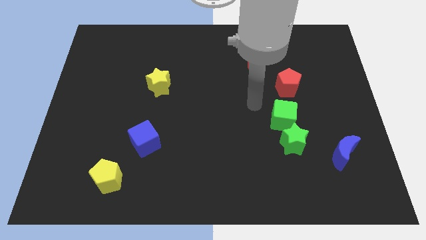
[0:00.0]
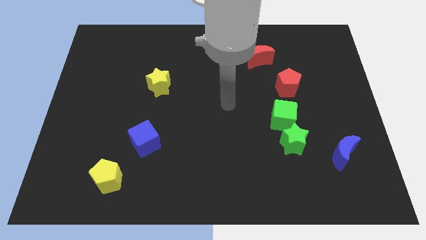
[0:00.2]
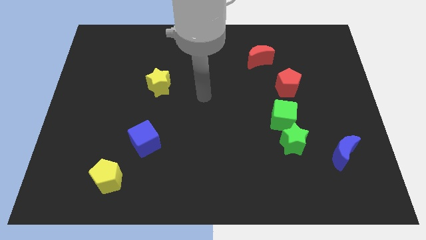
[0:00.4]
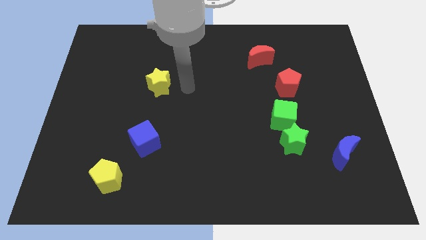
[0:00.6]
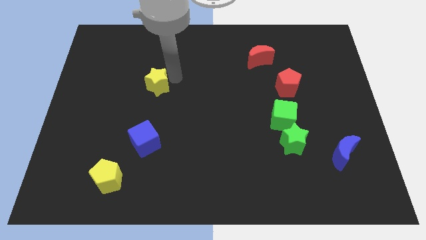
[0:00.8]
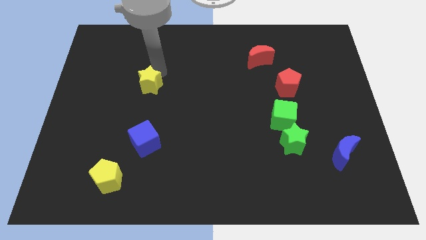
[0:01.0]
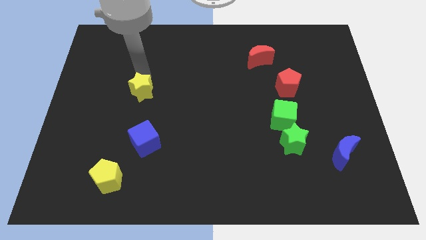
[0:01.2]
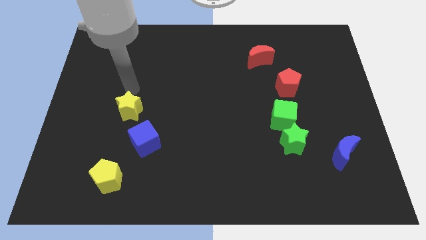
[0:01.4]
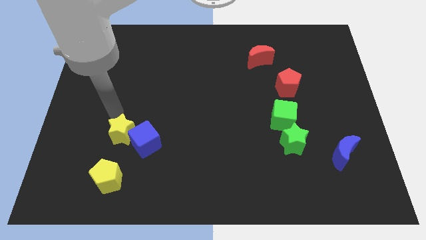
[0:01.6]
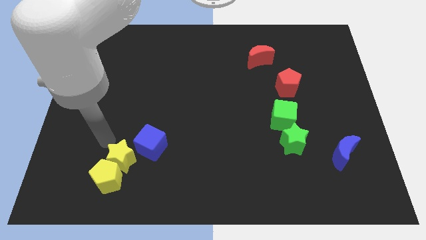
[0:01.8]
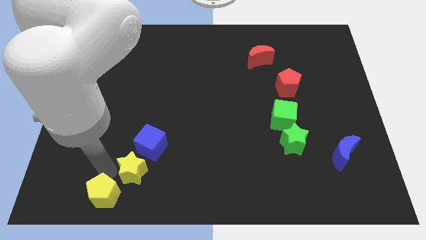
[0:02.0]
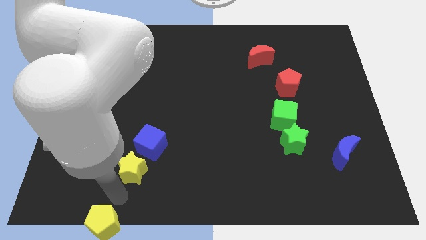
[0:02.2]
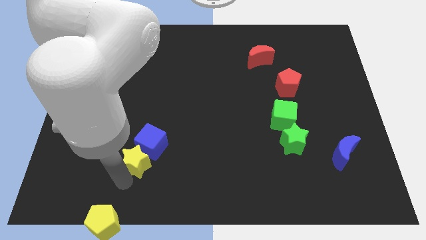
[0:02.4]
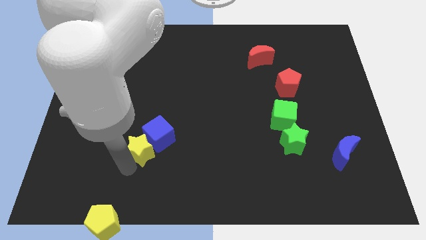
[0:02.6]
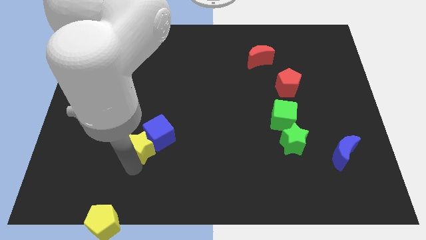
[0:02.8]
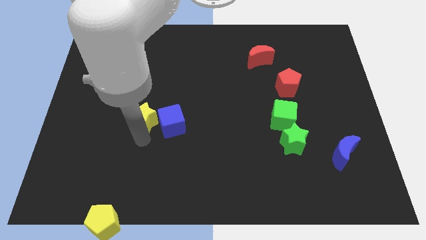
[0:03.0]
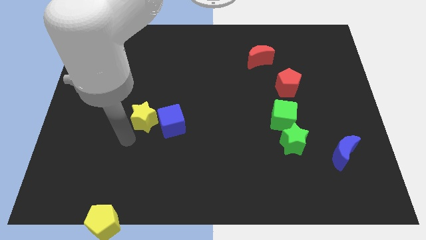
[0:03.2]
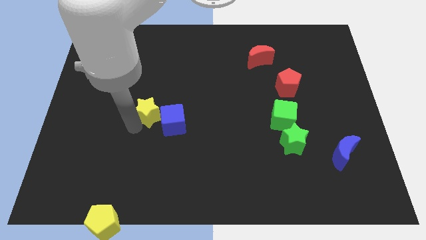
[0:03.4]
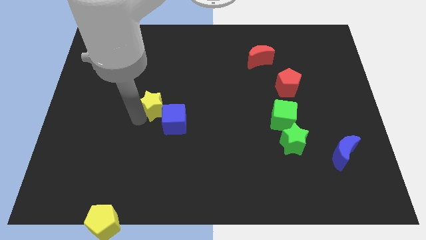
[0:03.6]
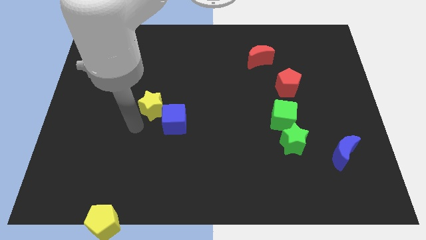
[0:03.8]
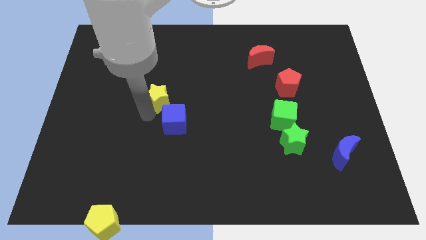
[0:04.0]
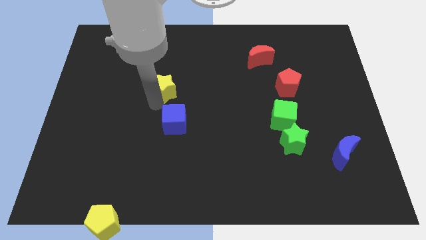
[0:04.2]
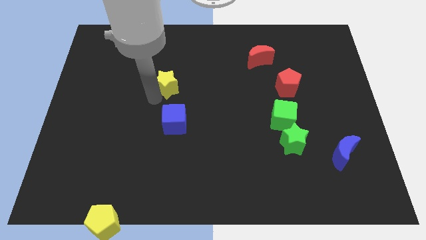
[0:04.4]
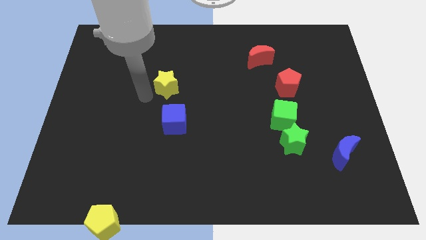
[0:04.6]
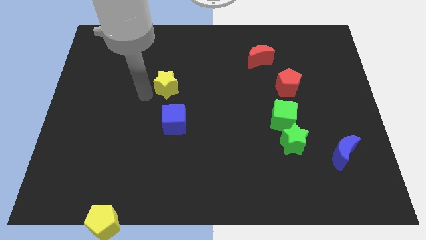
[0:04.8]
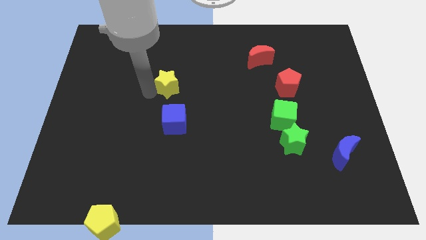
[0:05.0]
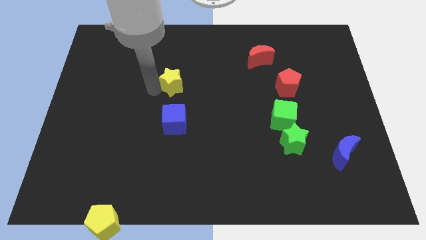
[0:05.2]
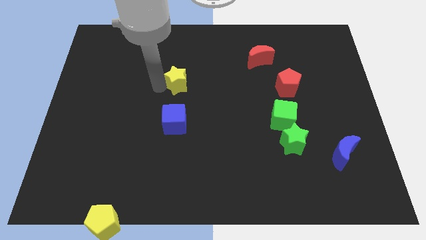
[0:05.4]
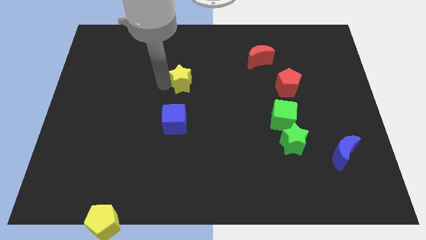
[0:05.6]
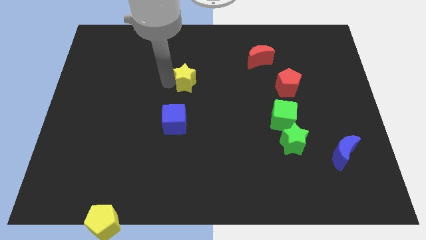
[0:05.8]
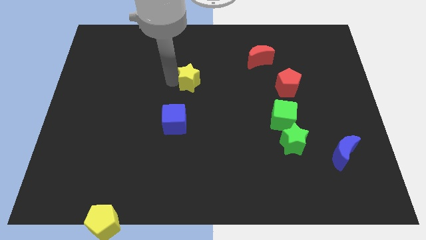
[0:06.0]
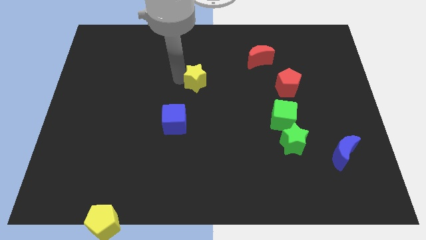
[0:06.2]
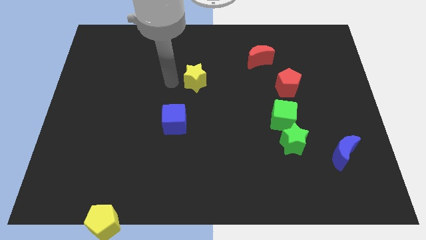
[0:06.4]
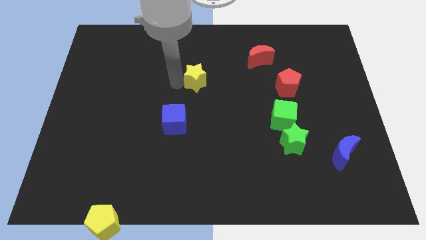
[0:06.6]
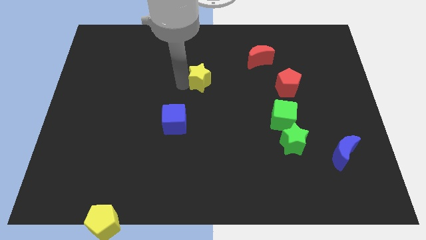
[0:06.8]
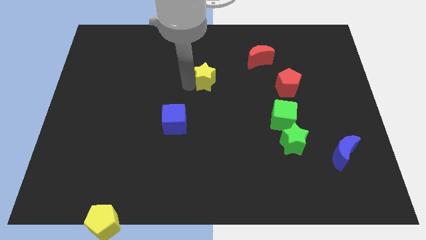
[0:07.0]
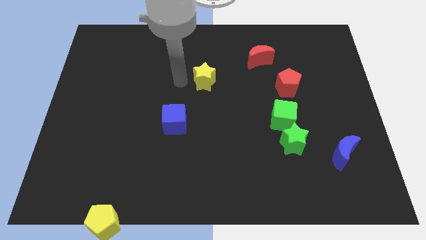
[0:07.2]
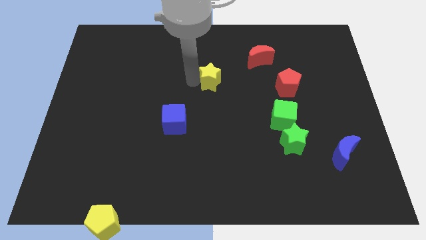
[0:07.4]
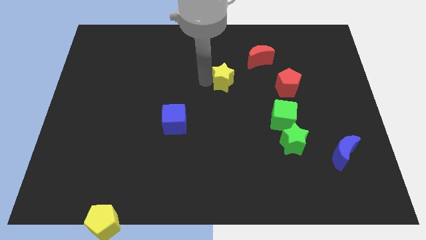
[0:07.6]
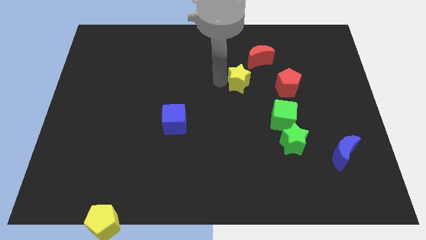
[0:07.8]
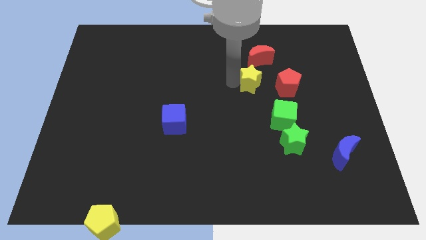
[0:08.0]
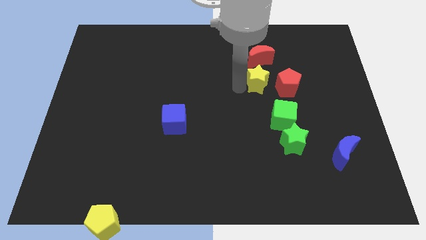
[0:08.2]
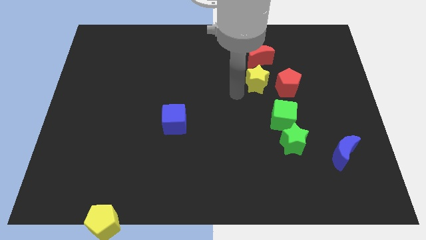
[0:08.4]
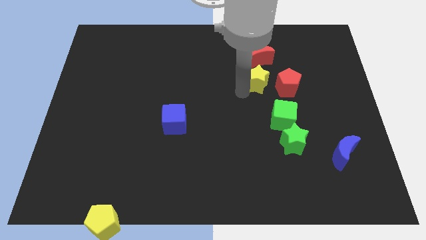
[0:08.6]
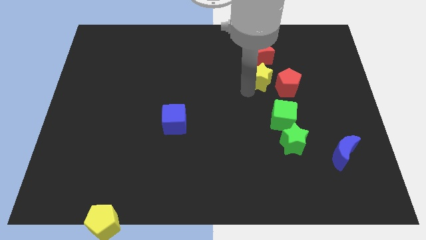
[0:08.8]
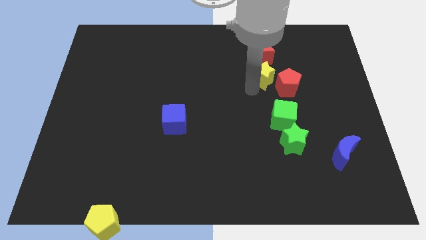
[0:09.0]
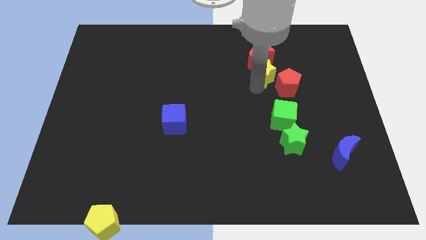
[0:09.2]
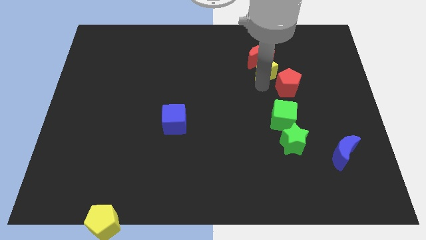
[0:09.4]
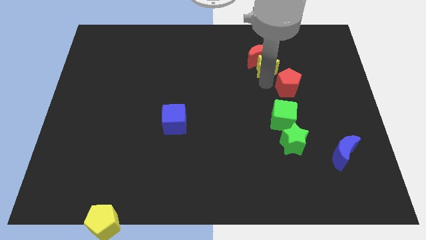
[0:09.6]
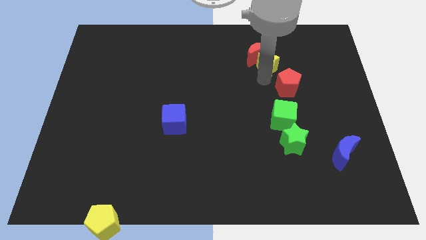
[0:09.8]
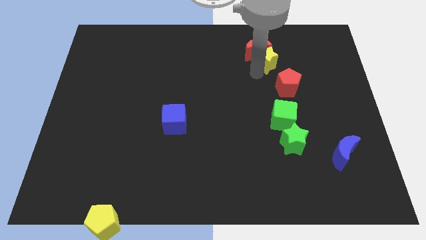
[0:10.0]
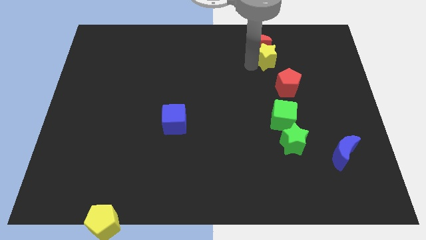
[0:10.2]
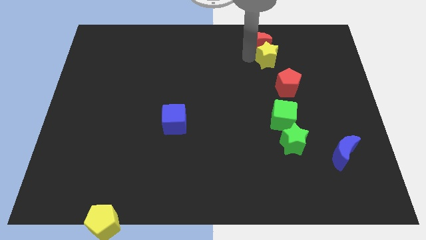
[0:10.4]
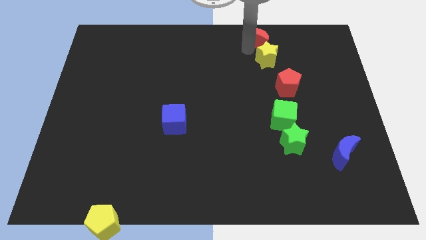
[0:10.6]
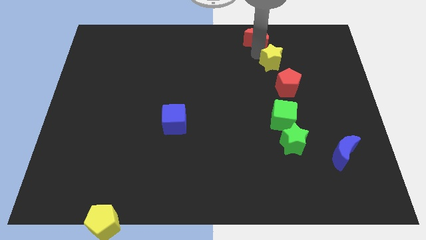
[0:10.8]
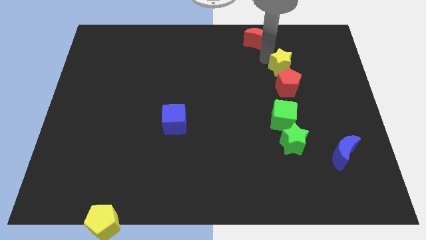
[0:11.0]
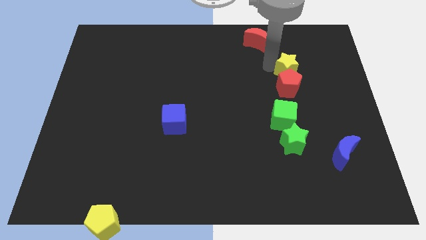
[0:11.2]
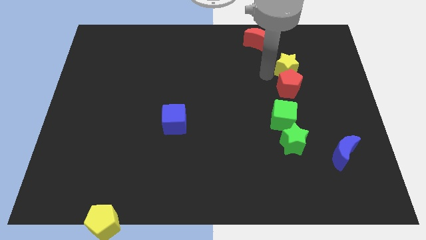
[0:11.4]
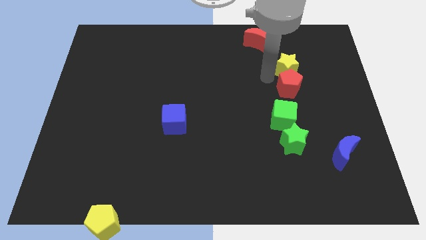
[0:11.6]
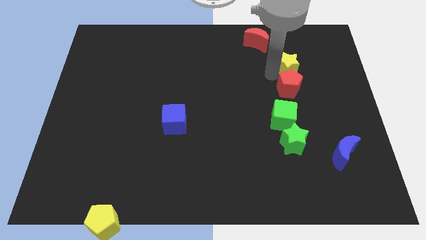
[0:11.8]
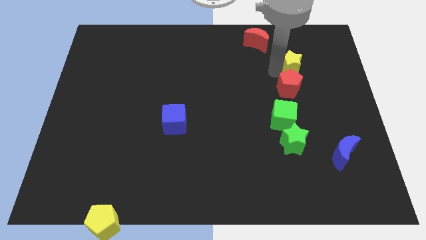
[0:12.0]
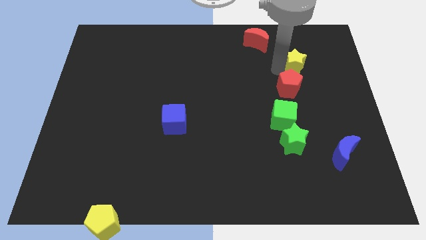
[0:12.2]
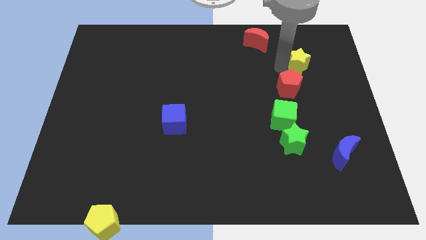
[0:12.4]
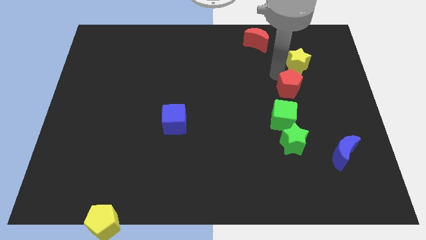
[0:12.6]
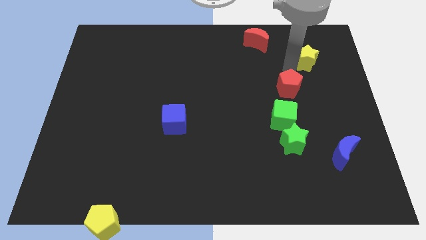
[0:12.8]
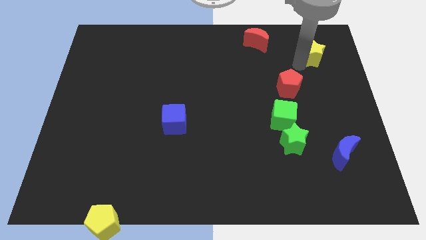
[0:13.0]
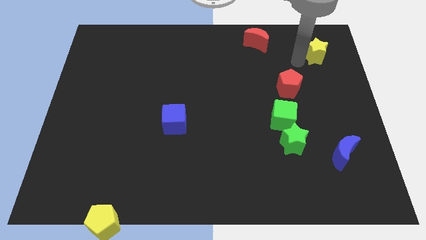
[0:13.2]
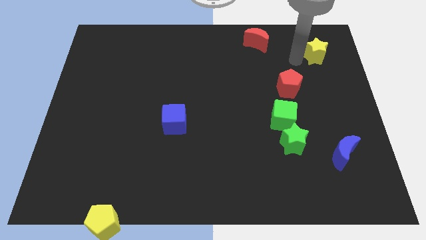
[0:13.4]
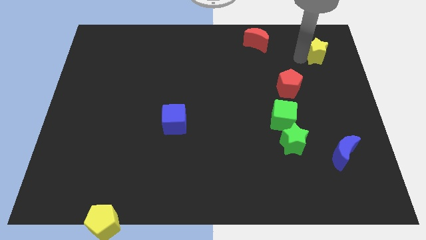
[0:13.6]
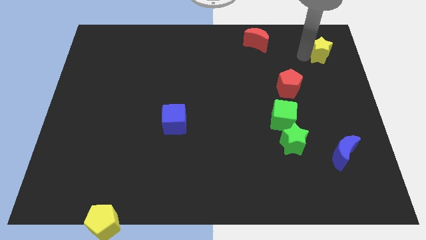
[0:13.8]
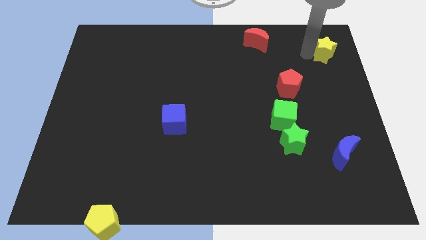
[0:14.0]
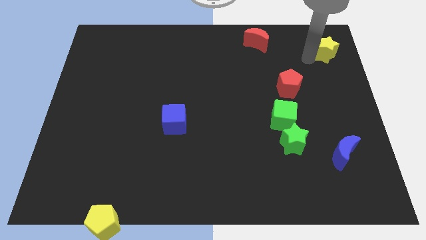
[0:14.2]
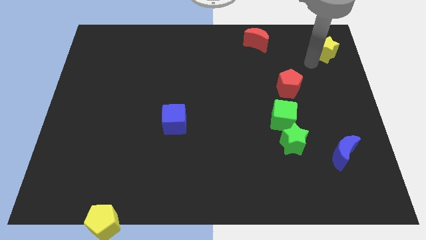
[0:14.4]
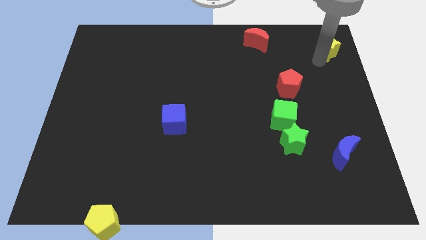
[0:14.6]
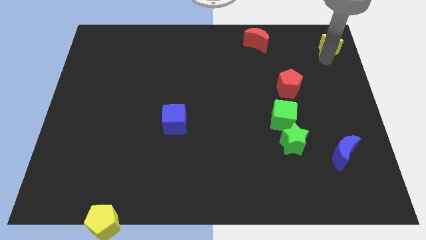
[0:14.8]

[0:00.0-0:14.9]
put the yellow star to the top right
